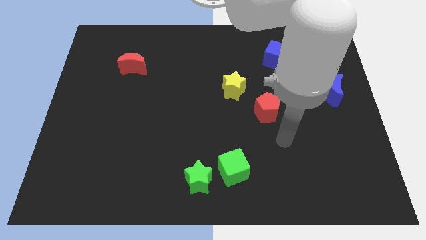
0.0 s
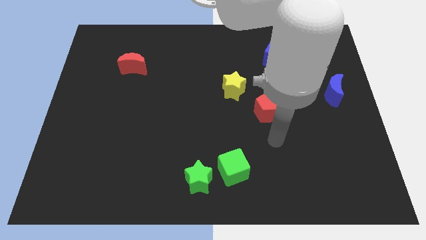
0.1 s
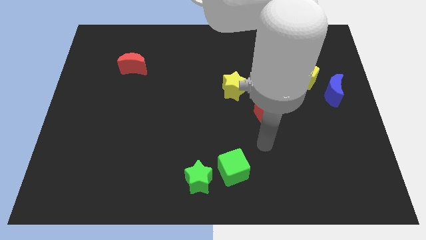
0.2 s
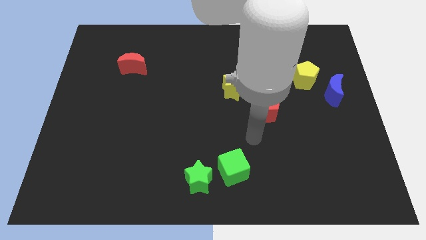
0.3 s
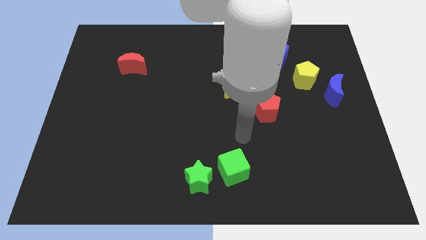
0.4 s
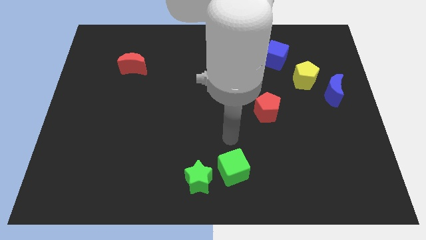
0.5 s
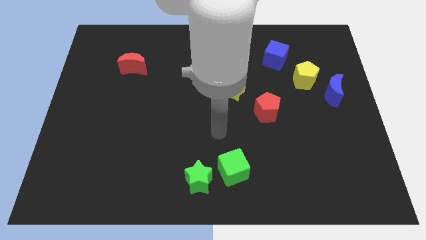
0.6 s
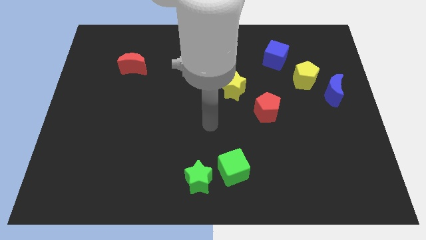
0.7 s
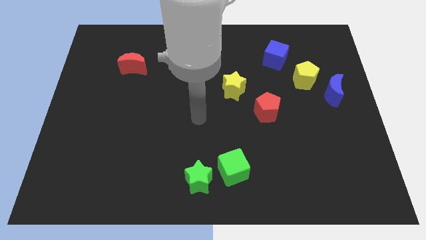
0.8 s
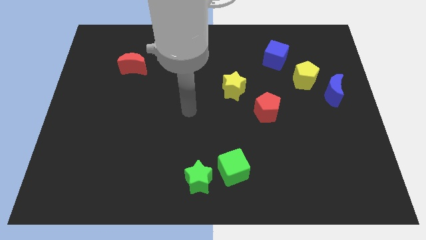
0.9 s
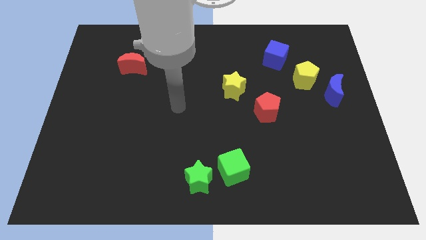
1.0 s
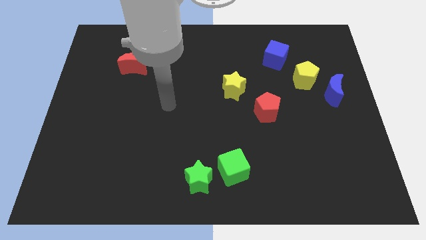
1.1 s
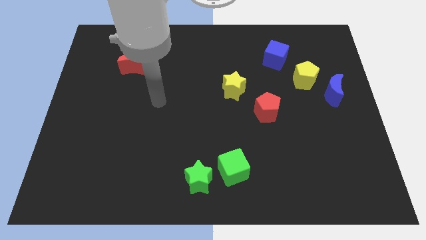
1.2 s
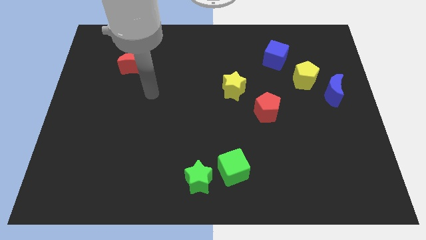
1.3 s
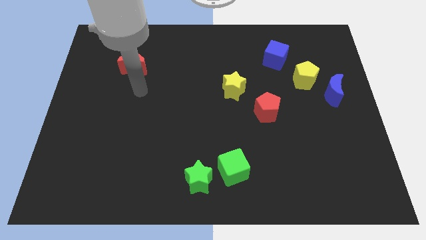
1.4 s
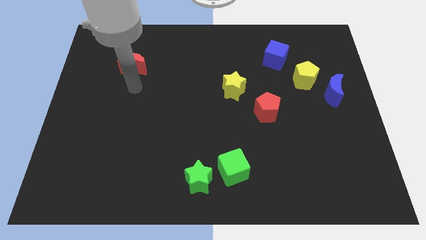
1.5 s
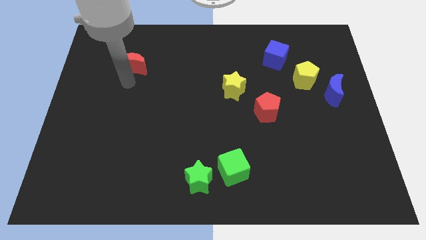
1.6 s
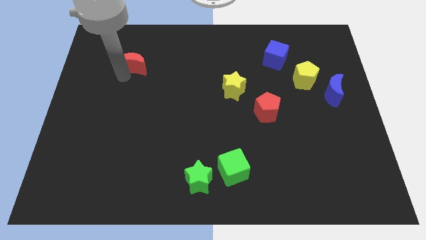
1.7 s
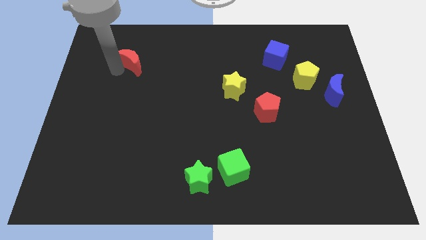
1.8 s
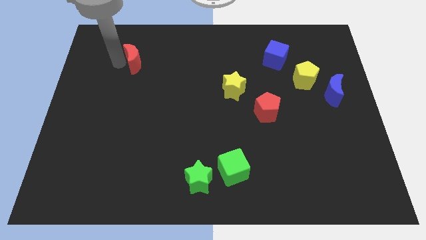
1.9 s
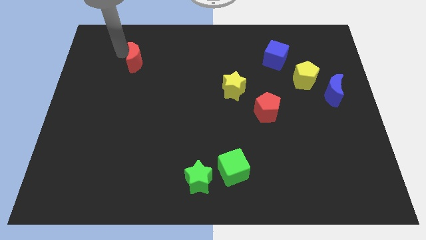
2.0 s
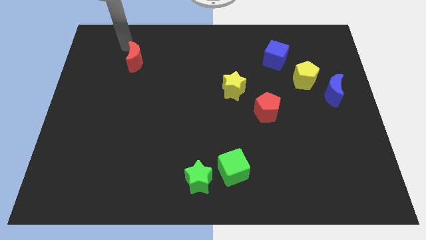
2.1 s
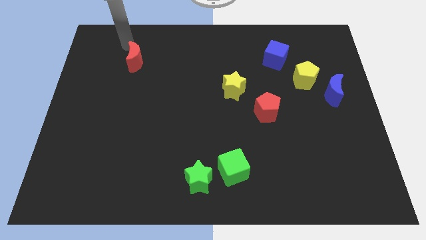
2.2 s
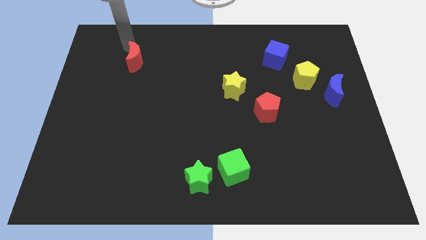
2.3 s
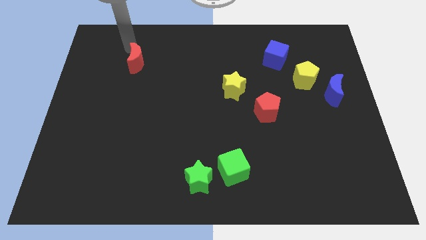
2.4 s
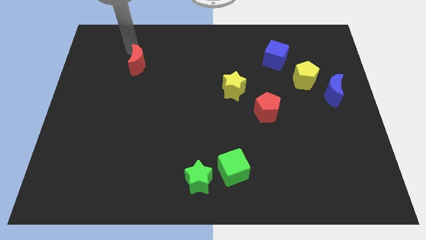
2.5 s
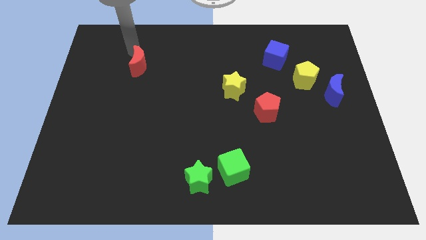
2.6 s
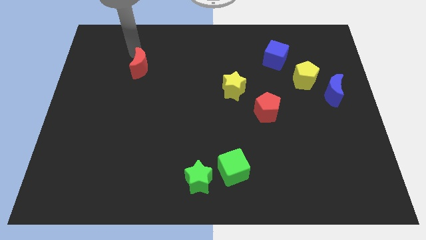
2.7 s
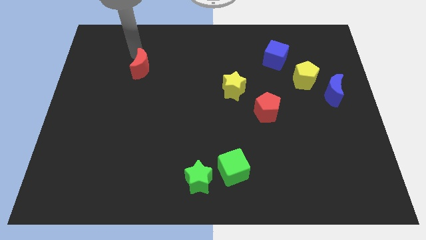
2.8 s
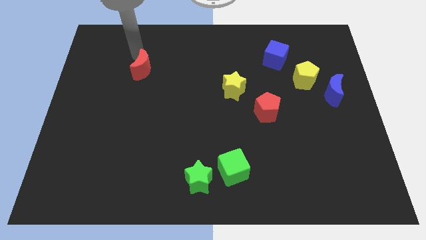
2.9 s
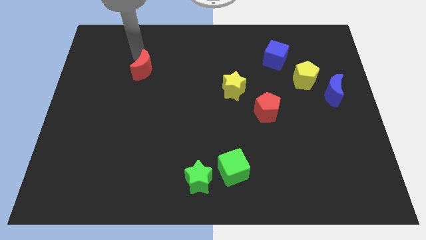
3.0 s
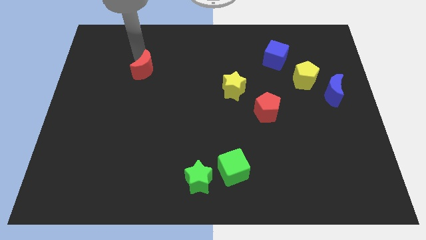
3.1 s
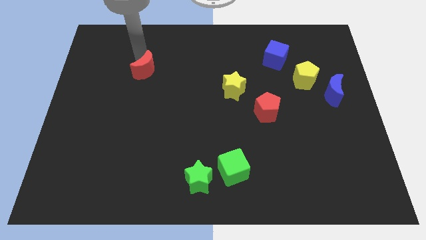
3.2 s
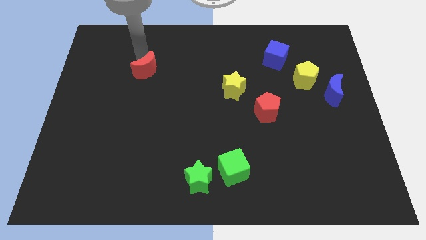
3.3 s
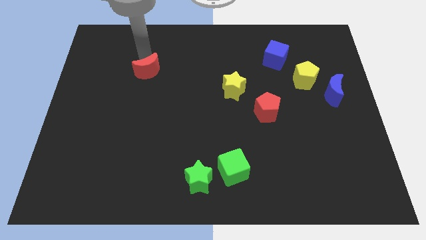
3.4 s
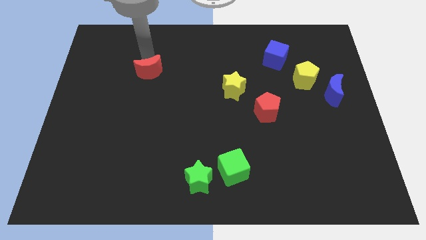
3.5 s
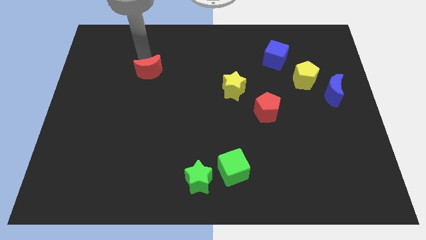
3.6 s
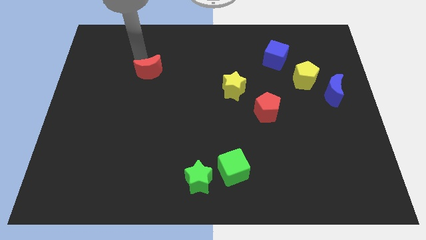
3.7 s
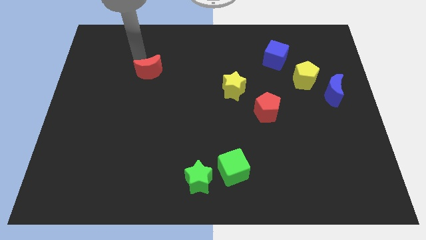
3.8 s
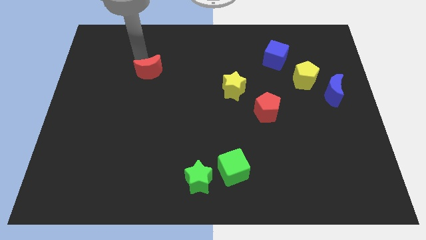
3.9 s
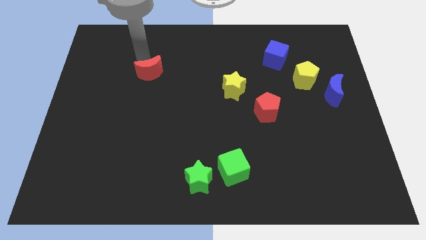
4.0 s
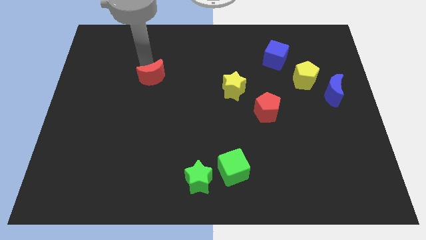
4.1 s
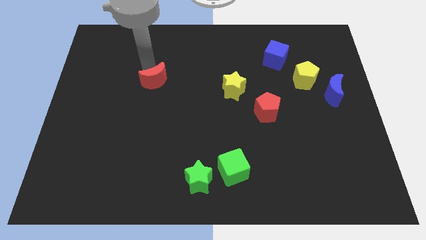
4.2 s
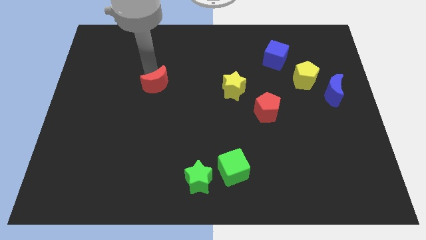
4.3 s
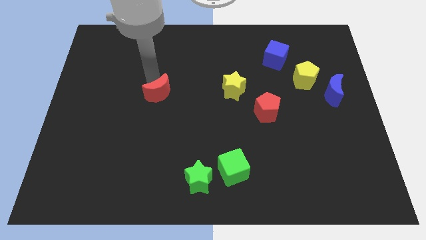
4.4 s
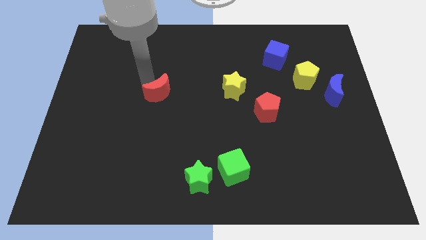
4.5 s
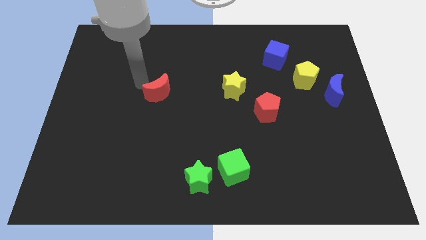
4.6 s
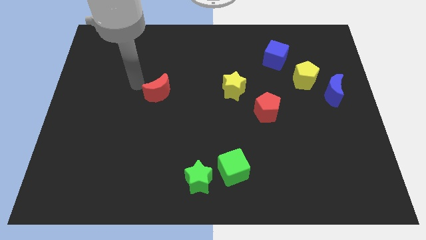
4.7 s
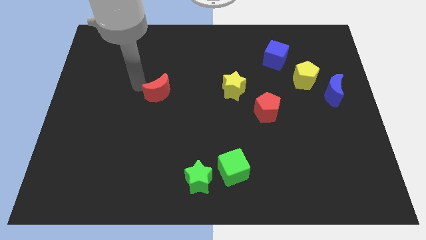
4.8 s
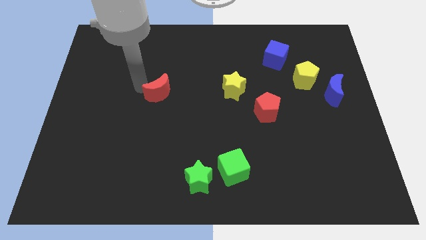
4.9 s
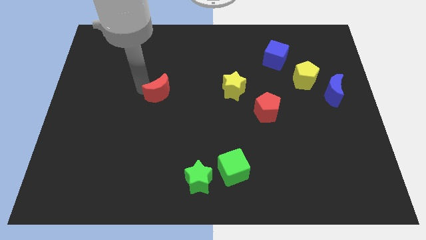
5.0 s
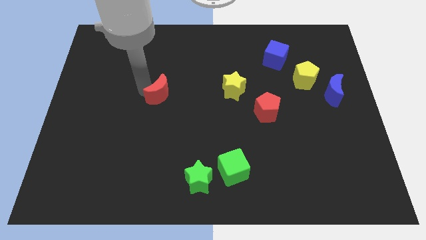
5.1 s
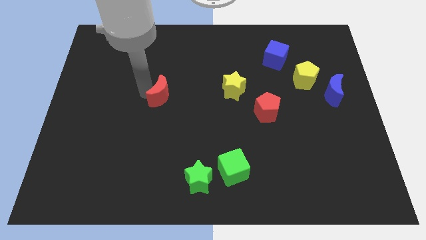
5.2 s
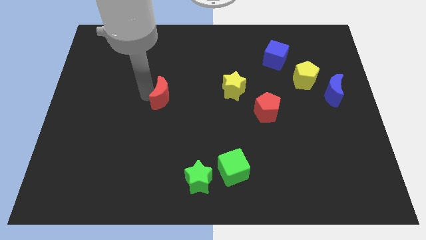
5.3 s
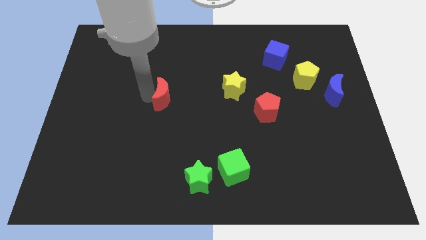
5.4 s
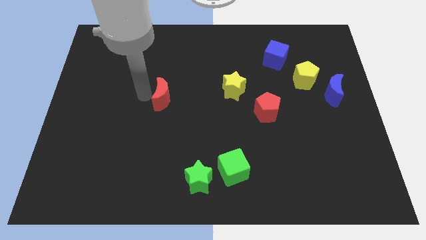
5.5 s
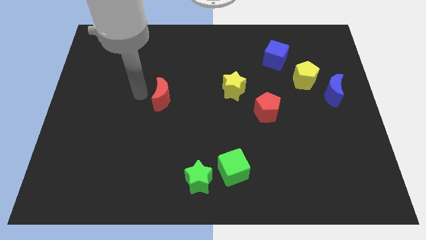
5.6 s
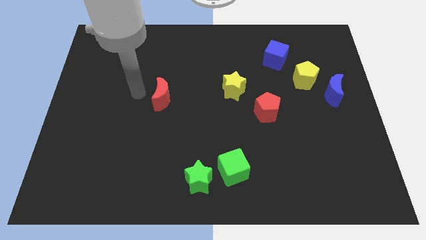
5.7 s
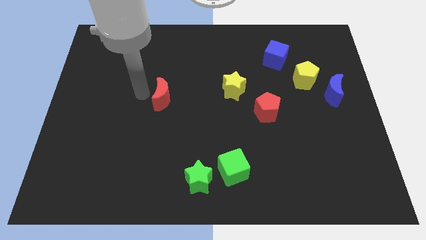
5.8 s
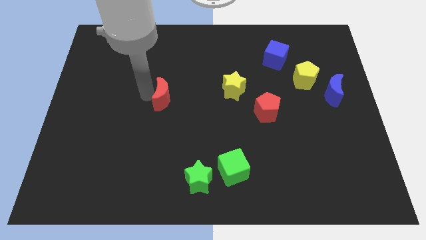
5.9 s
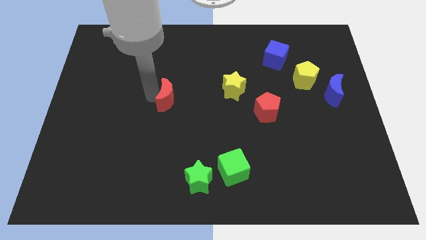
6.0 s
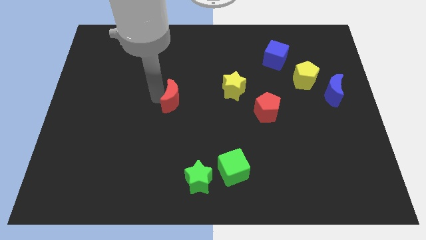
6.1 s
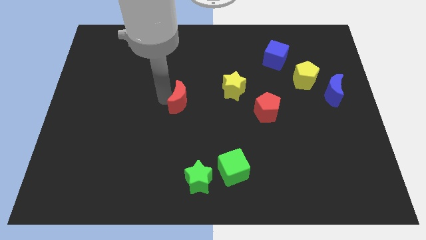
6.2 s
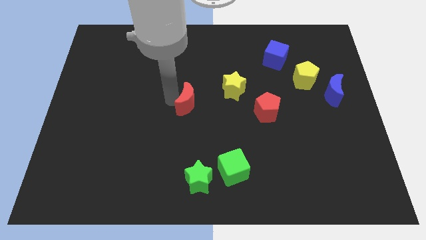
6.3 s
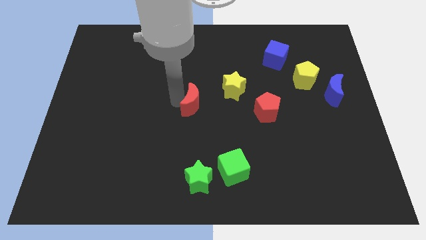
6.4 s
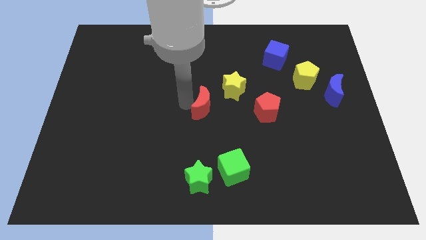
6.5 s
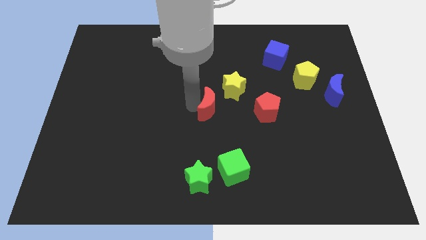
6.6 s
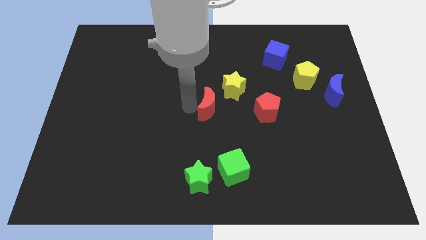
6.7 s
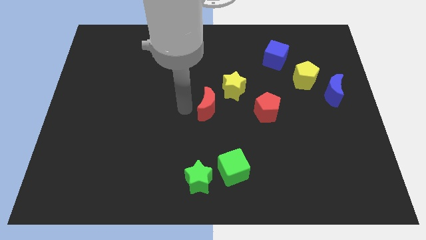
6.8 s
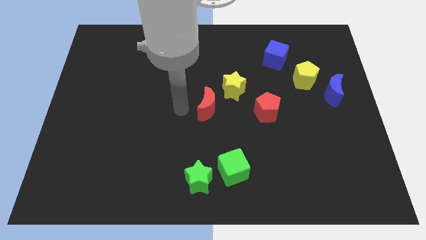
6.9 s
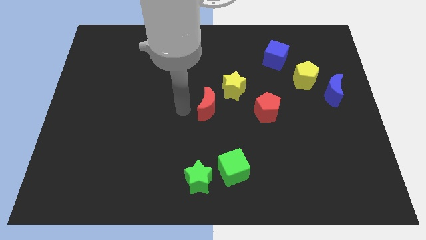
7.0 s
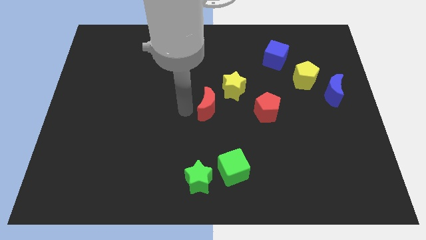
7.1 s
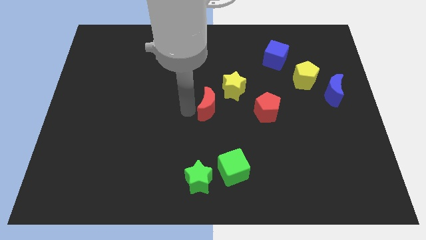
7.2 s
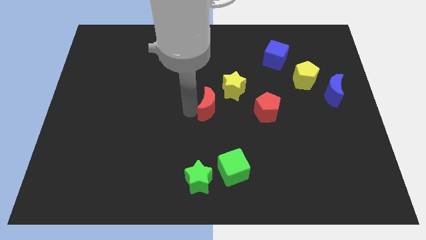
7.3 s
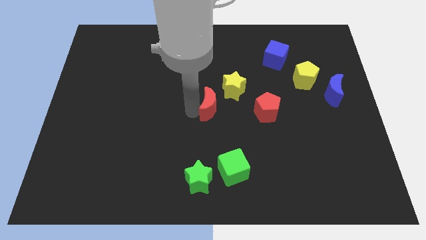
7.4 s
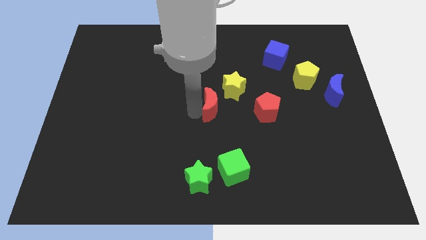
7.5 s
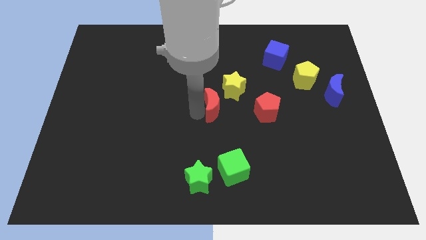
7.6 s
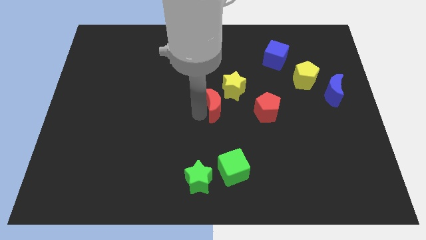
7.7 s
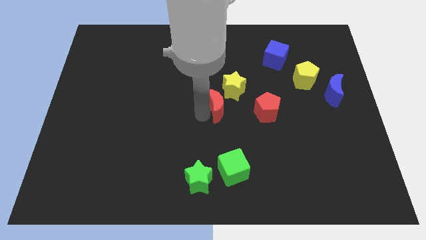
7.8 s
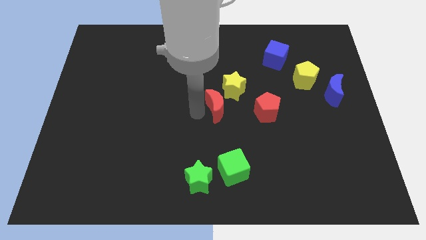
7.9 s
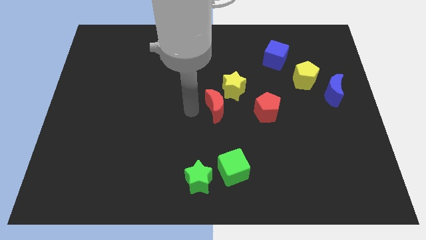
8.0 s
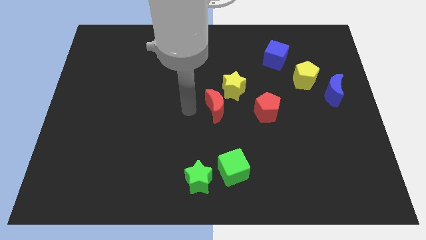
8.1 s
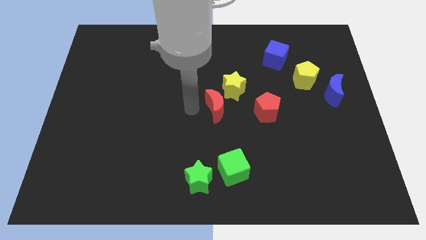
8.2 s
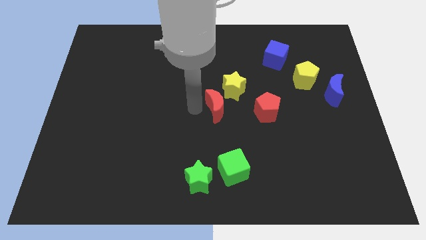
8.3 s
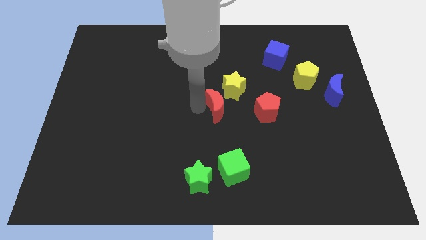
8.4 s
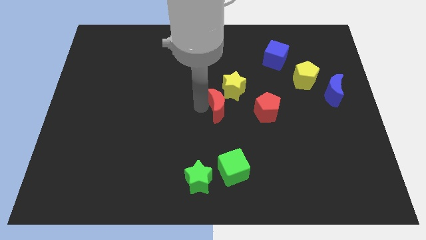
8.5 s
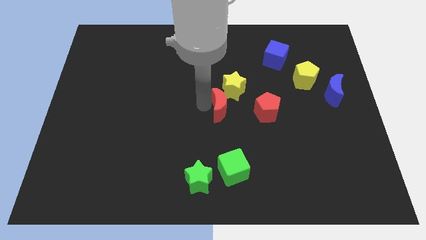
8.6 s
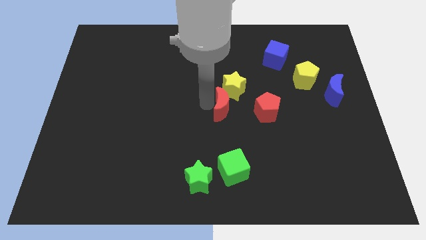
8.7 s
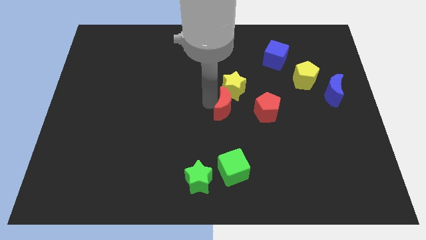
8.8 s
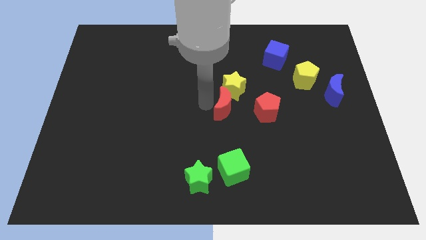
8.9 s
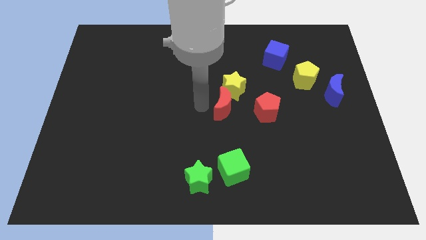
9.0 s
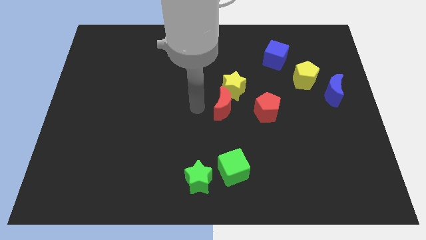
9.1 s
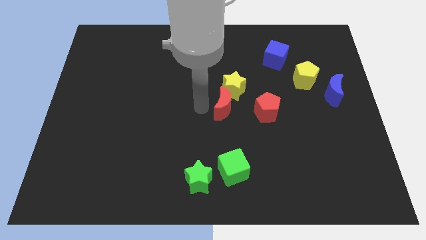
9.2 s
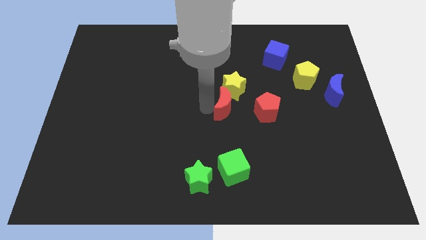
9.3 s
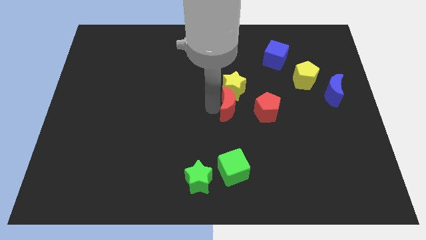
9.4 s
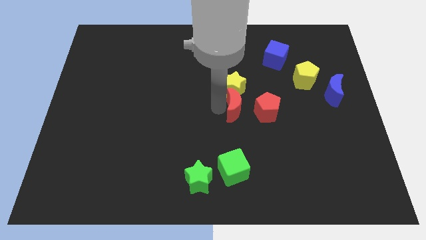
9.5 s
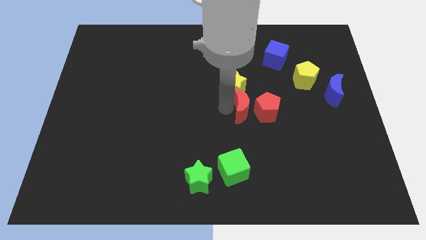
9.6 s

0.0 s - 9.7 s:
slide the red moon close to the red pentagon
